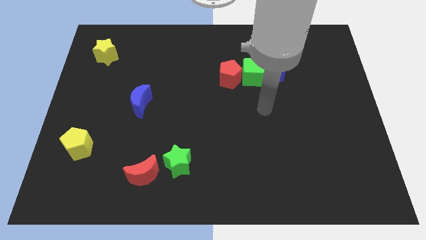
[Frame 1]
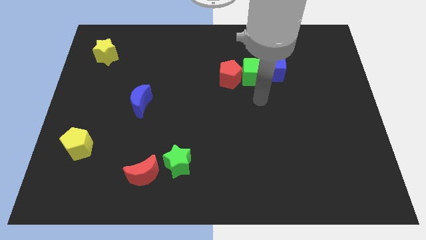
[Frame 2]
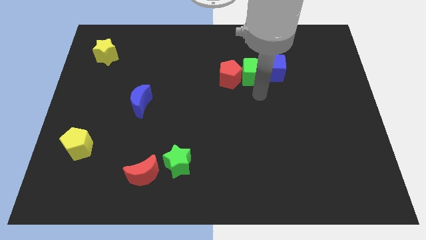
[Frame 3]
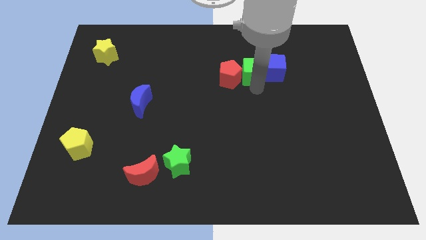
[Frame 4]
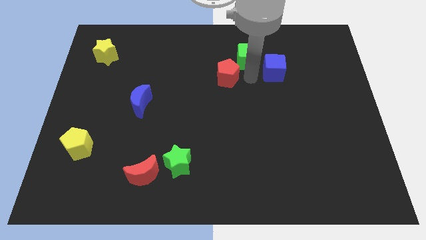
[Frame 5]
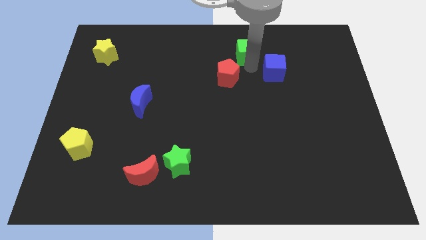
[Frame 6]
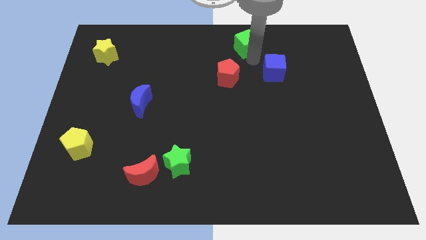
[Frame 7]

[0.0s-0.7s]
separate the blue cube from the green cube

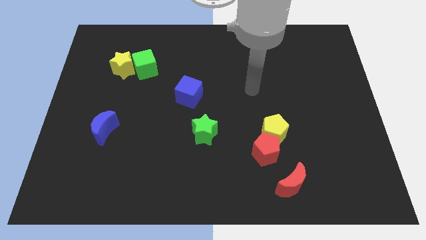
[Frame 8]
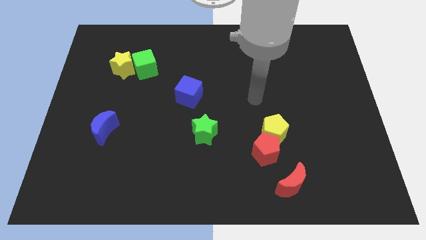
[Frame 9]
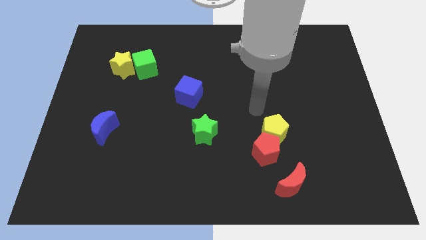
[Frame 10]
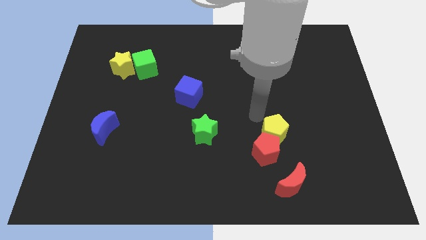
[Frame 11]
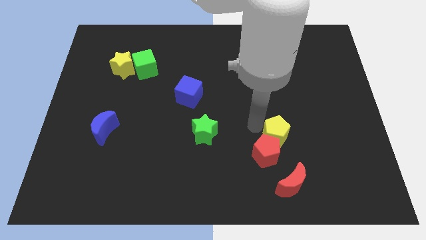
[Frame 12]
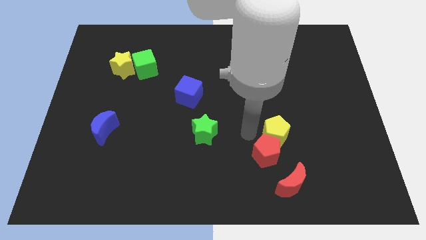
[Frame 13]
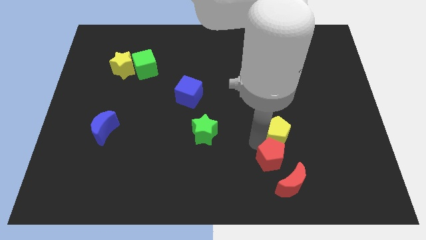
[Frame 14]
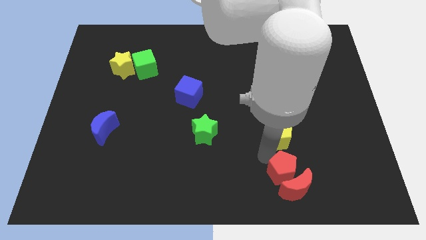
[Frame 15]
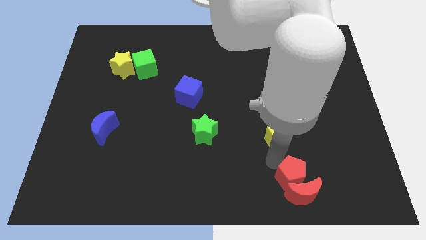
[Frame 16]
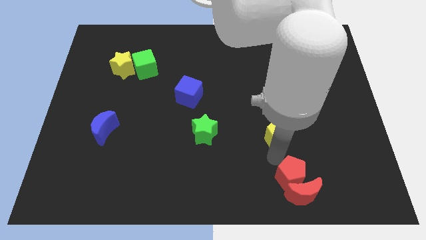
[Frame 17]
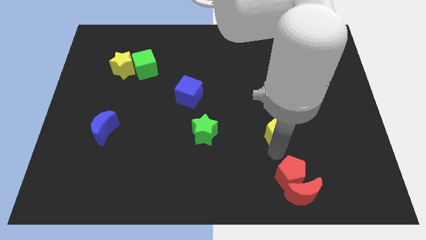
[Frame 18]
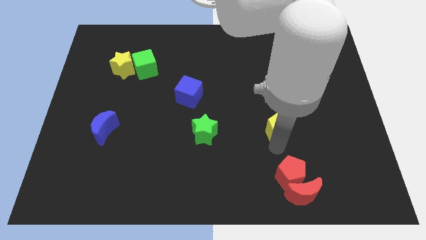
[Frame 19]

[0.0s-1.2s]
move the yellow pentagon away from the red pentagon

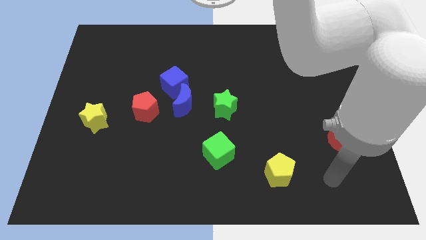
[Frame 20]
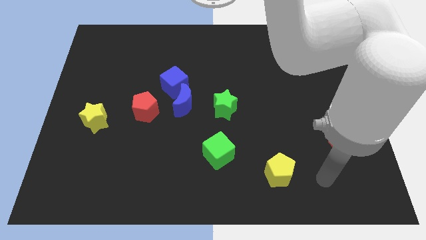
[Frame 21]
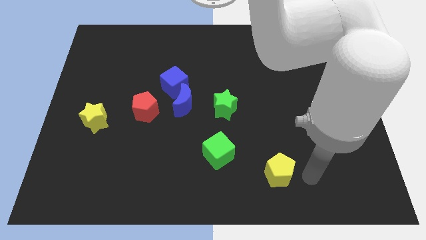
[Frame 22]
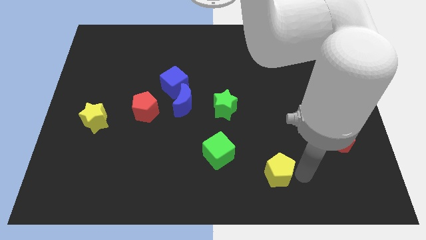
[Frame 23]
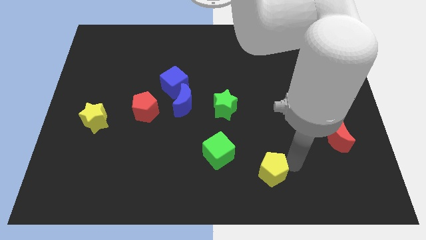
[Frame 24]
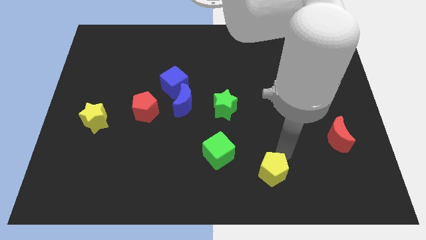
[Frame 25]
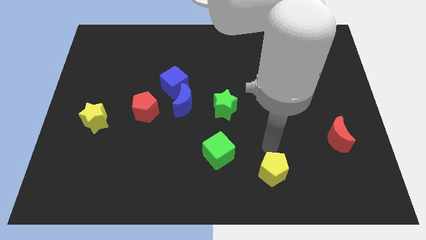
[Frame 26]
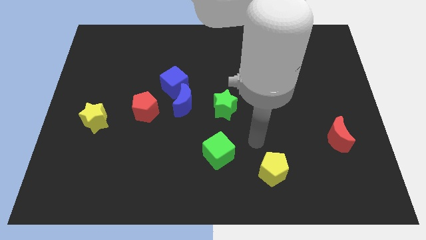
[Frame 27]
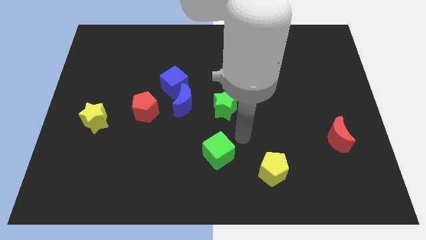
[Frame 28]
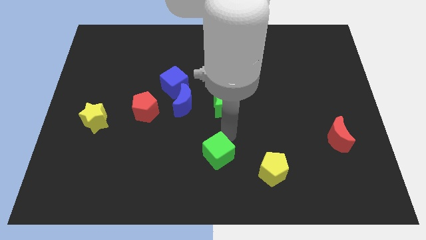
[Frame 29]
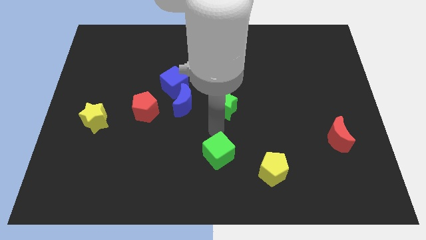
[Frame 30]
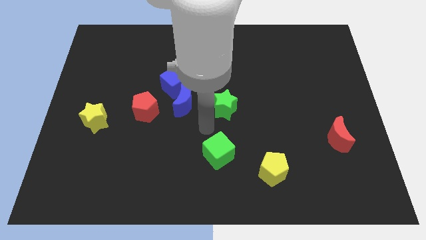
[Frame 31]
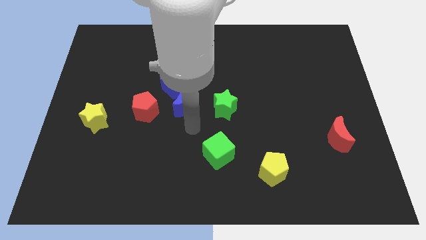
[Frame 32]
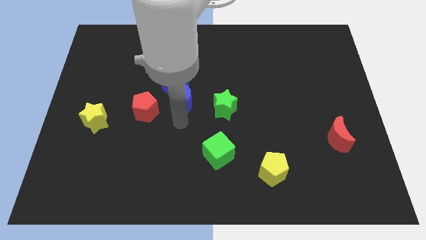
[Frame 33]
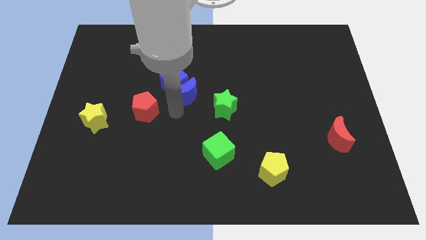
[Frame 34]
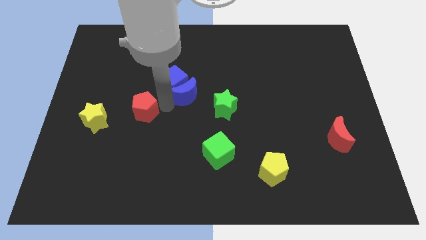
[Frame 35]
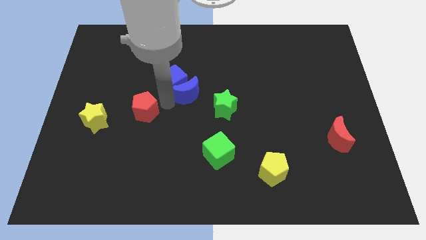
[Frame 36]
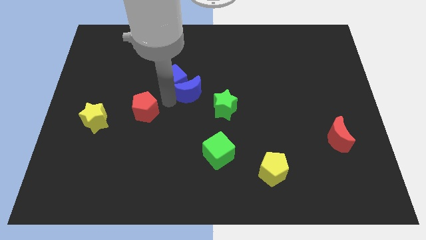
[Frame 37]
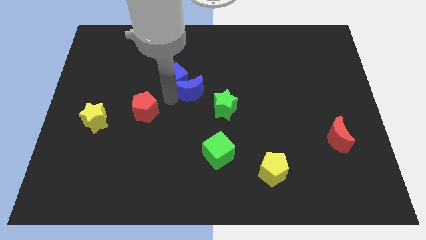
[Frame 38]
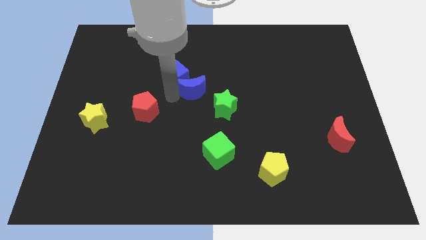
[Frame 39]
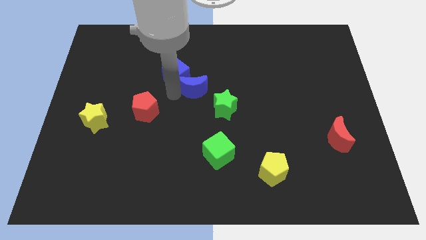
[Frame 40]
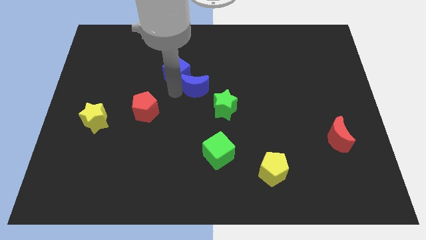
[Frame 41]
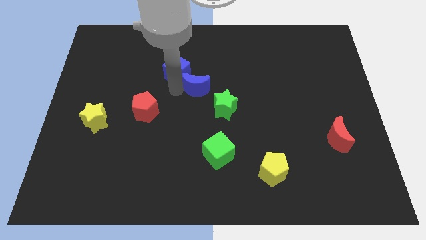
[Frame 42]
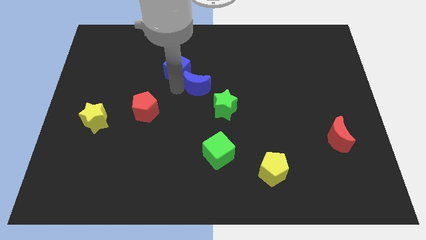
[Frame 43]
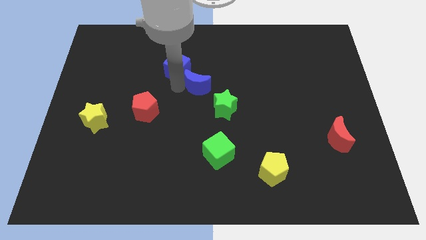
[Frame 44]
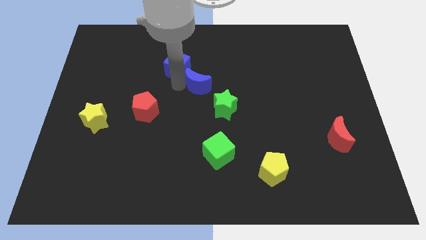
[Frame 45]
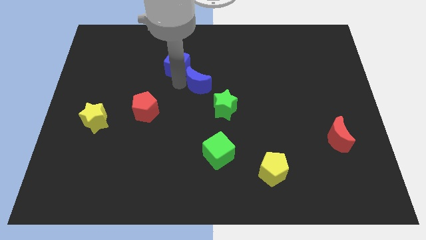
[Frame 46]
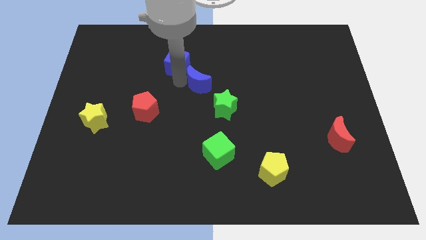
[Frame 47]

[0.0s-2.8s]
separate the blue cube from the blue moon and red pentagon

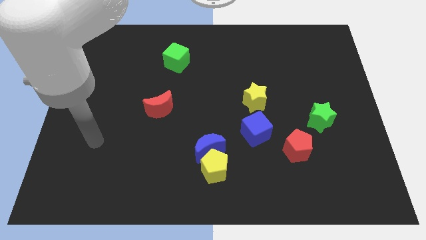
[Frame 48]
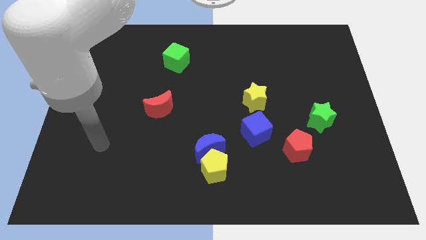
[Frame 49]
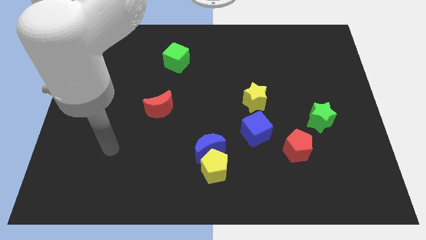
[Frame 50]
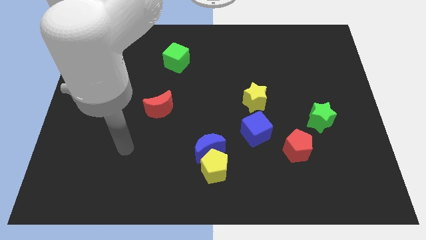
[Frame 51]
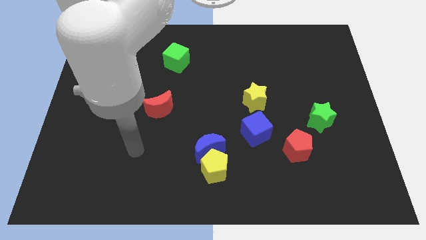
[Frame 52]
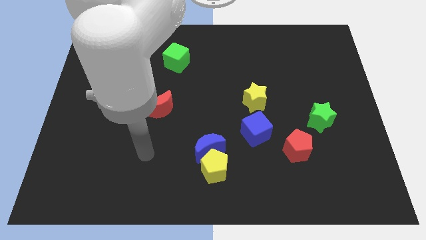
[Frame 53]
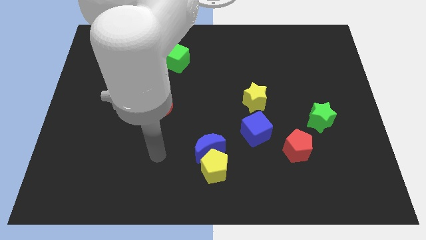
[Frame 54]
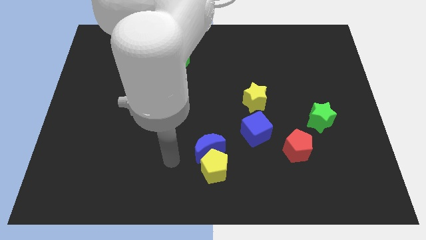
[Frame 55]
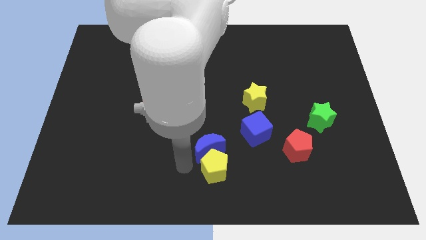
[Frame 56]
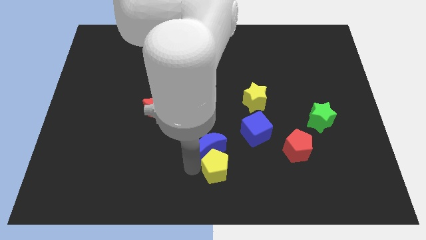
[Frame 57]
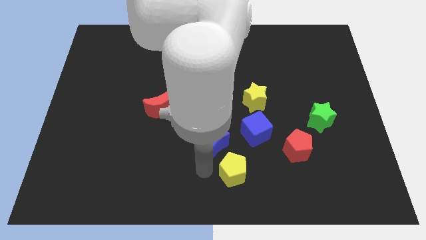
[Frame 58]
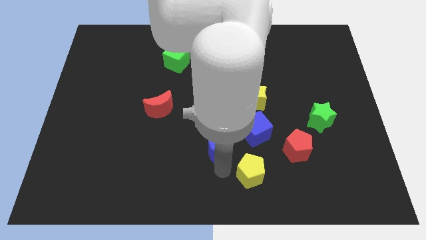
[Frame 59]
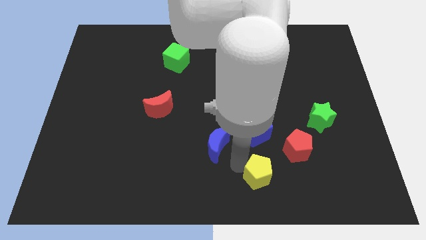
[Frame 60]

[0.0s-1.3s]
separate the blue moon from the yellow pentagon

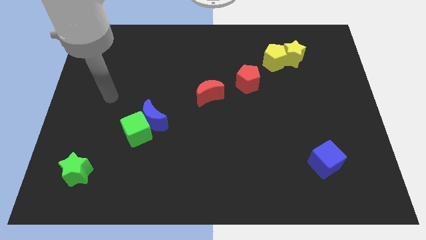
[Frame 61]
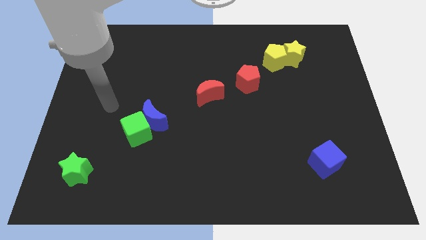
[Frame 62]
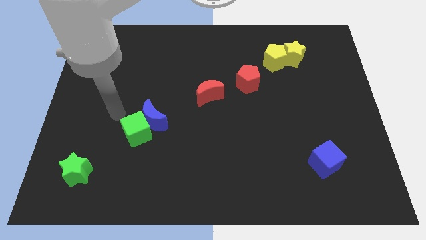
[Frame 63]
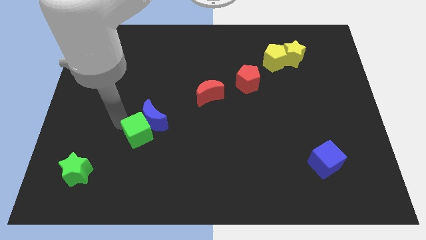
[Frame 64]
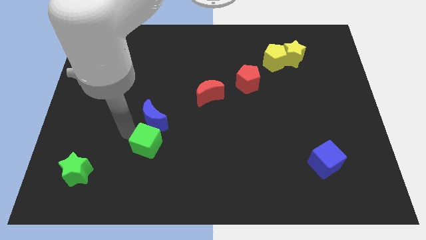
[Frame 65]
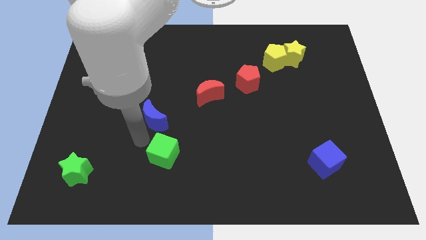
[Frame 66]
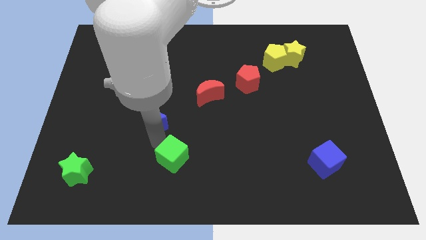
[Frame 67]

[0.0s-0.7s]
separate the blue moon from the green cube

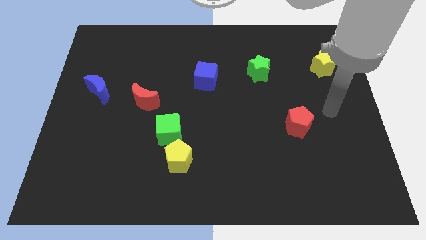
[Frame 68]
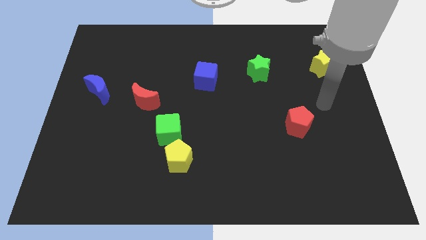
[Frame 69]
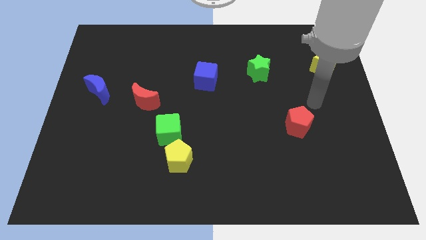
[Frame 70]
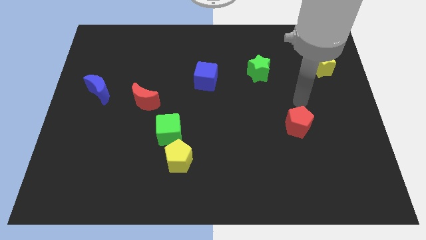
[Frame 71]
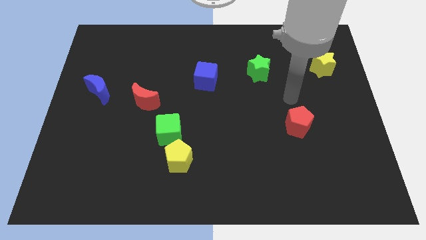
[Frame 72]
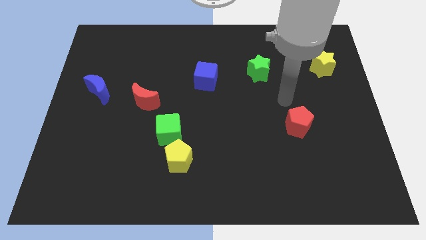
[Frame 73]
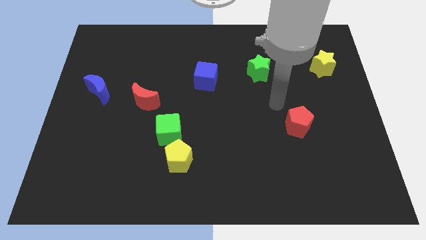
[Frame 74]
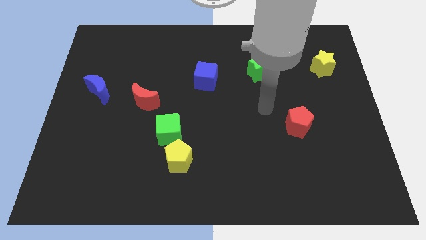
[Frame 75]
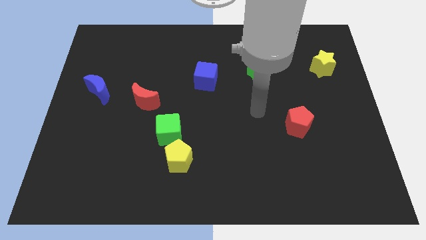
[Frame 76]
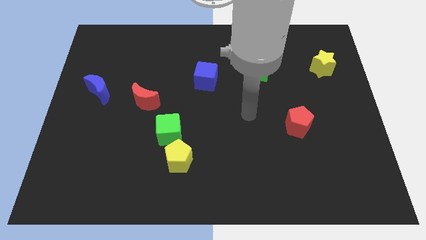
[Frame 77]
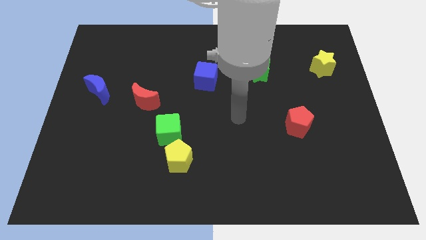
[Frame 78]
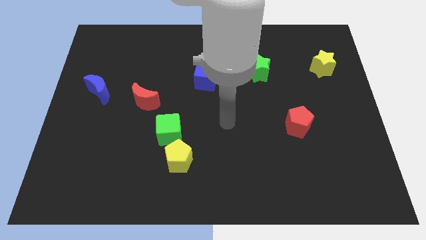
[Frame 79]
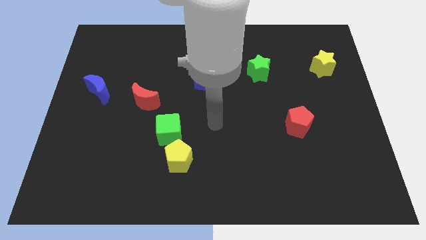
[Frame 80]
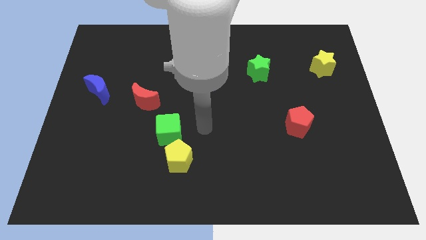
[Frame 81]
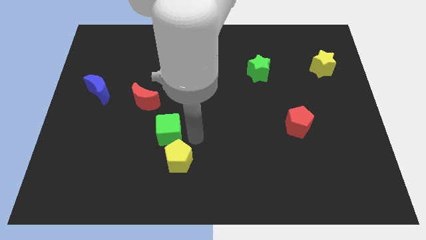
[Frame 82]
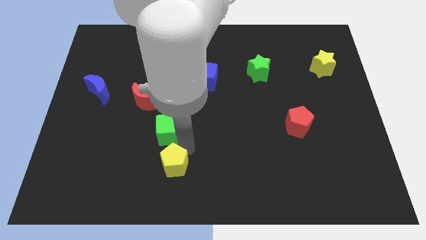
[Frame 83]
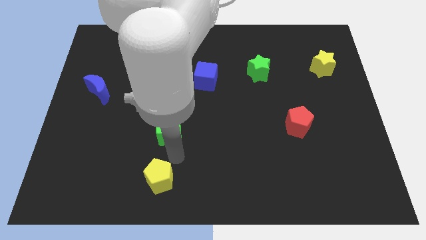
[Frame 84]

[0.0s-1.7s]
separate the green cube from the yellow pentagon

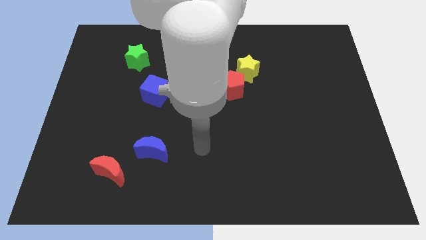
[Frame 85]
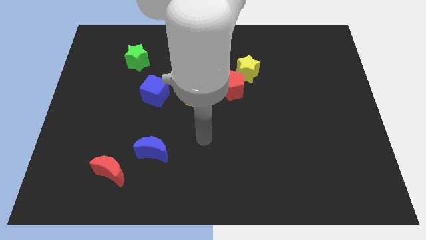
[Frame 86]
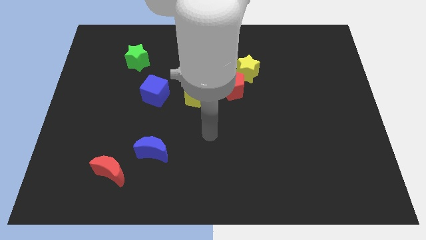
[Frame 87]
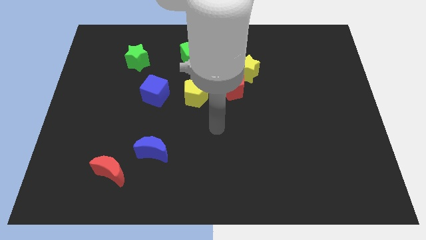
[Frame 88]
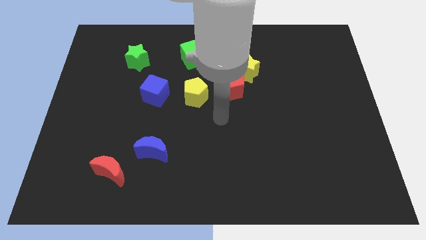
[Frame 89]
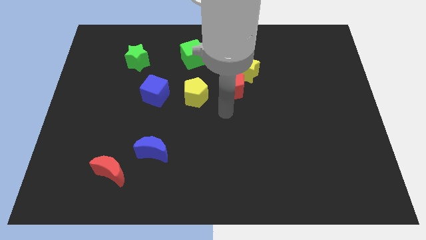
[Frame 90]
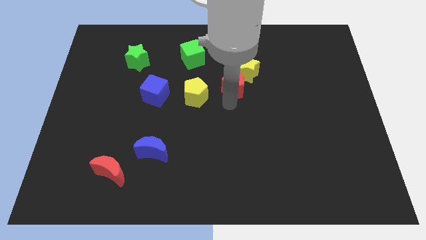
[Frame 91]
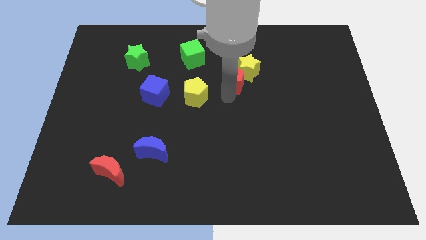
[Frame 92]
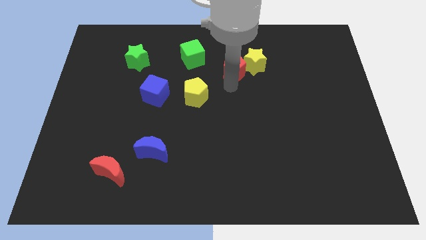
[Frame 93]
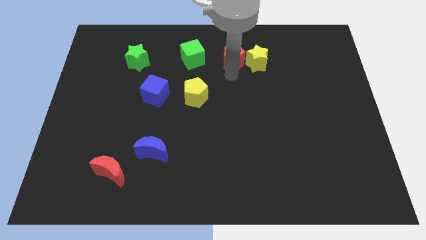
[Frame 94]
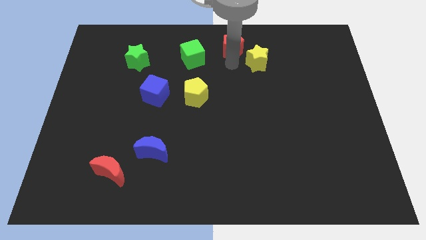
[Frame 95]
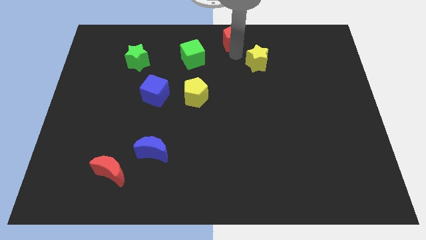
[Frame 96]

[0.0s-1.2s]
pull the yellow star apart from the red pentagon
